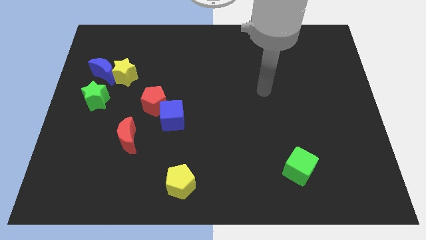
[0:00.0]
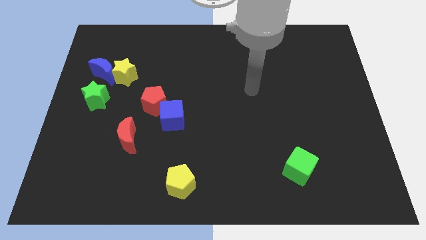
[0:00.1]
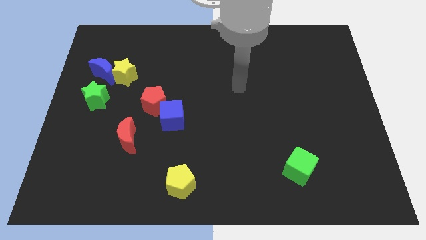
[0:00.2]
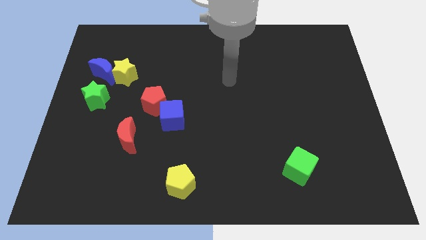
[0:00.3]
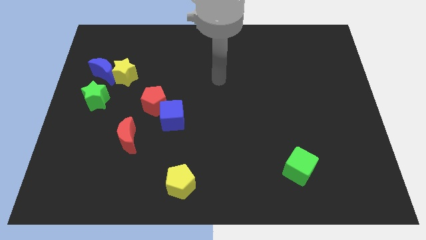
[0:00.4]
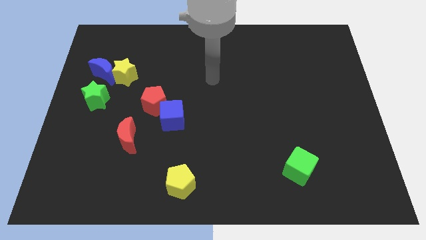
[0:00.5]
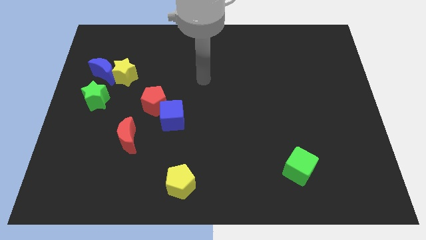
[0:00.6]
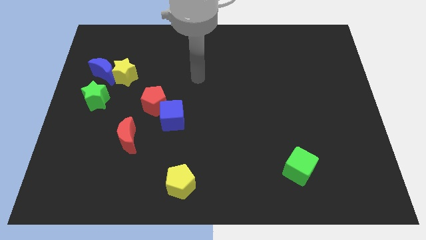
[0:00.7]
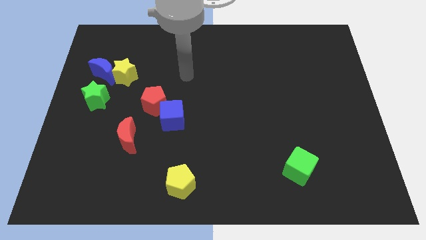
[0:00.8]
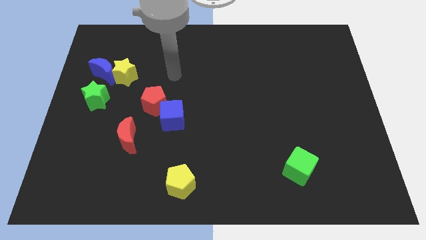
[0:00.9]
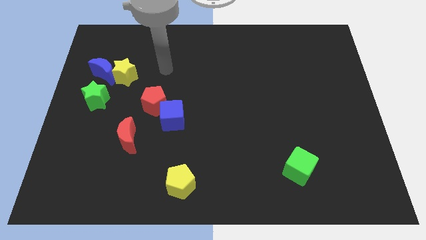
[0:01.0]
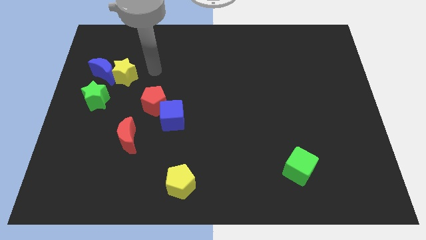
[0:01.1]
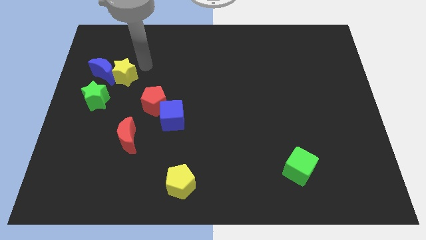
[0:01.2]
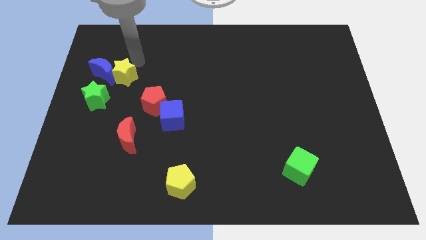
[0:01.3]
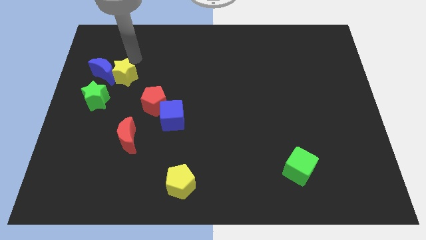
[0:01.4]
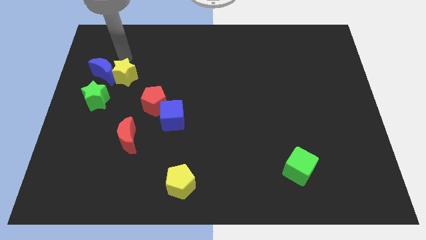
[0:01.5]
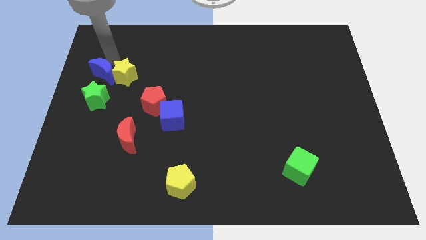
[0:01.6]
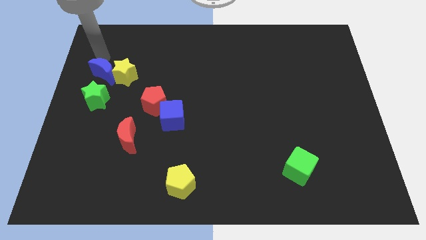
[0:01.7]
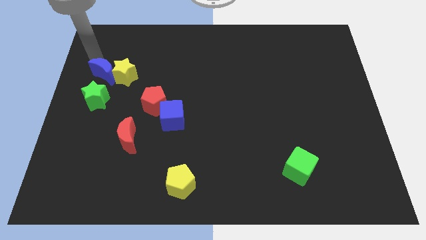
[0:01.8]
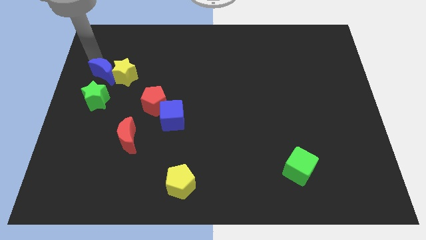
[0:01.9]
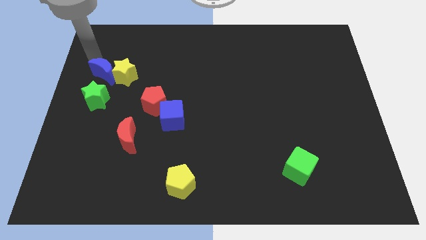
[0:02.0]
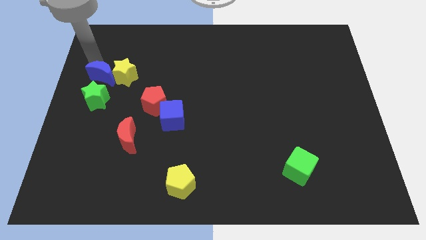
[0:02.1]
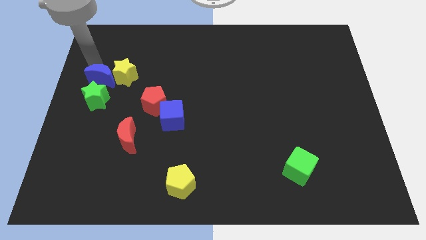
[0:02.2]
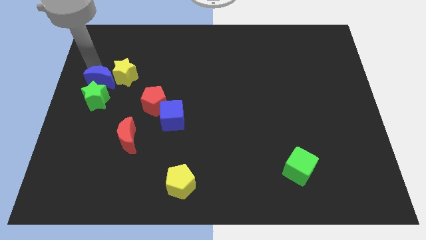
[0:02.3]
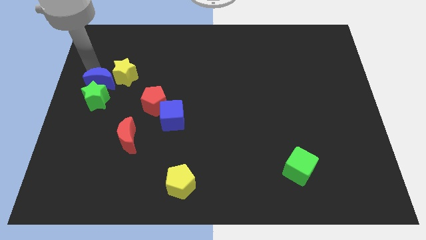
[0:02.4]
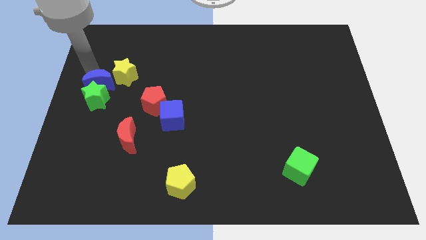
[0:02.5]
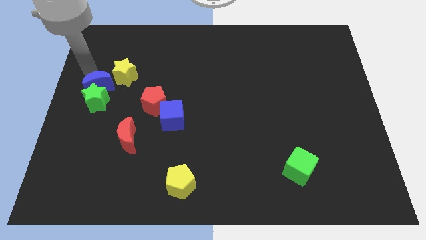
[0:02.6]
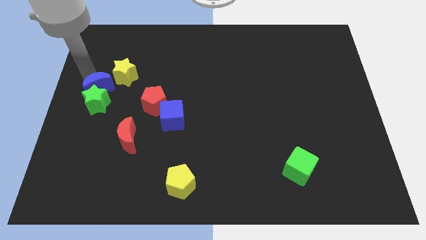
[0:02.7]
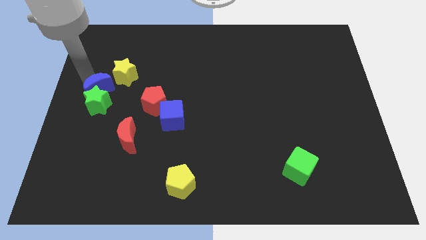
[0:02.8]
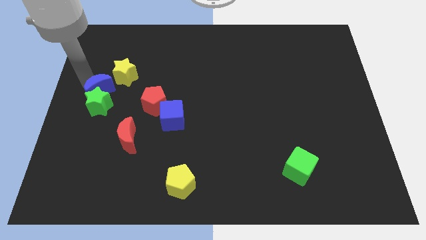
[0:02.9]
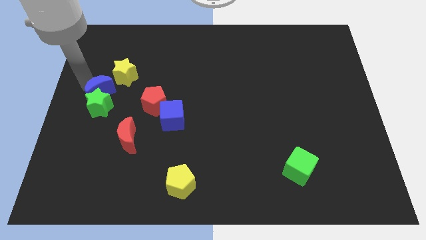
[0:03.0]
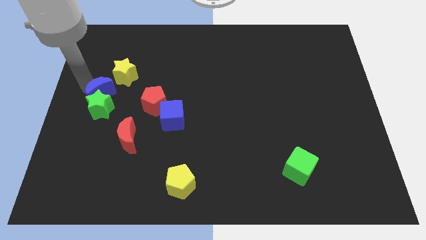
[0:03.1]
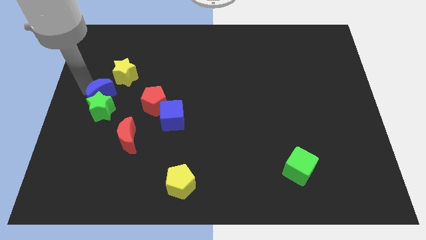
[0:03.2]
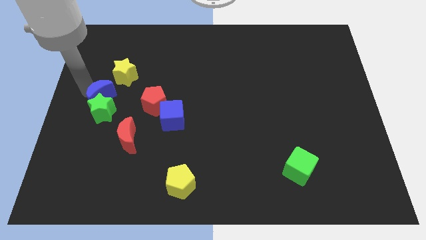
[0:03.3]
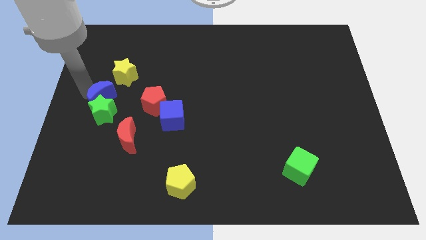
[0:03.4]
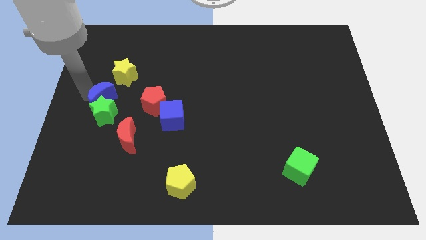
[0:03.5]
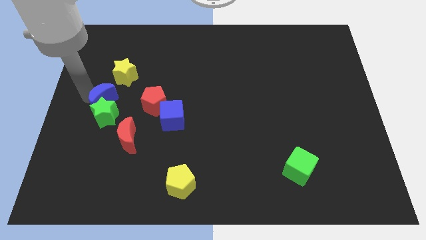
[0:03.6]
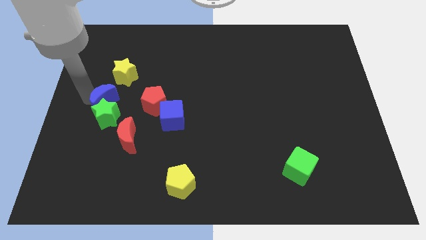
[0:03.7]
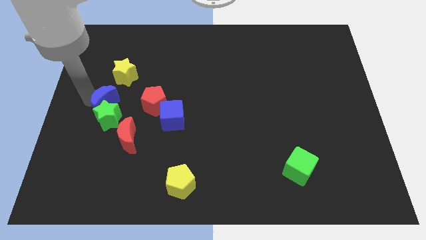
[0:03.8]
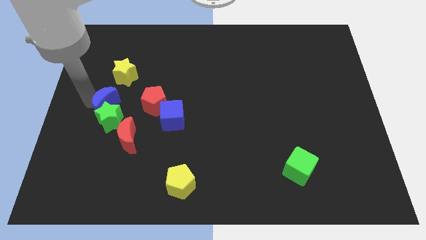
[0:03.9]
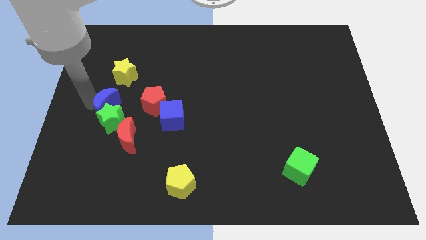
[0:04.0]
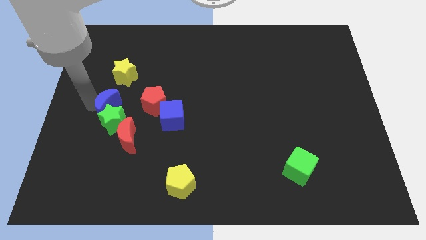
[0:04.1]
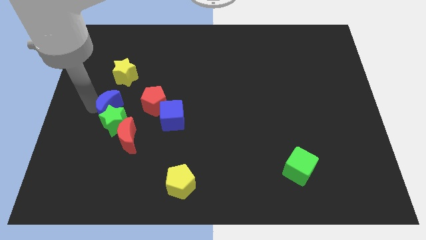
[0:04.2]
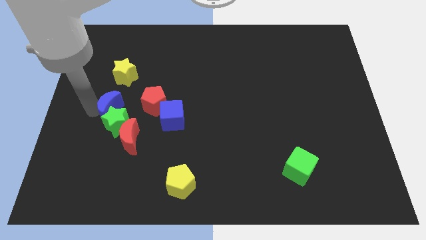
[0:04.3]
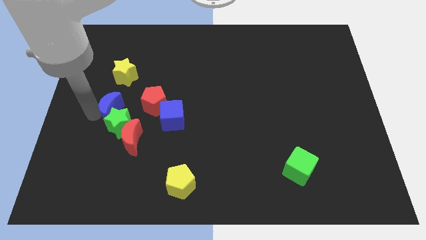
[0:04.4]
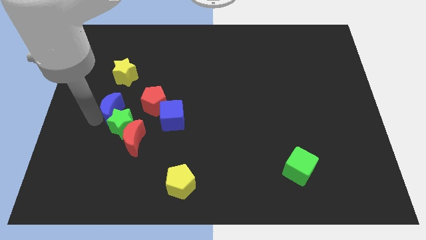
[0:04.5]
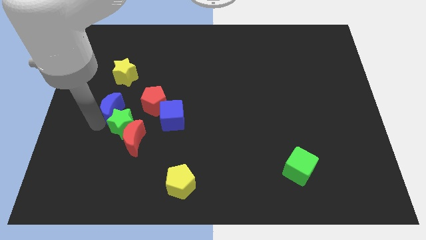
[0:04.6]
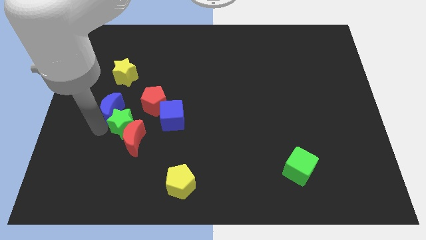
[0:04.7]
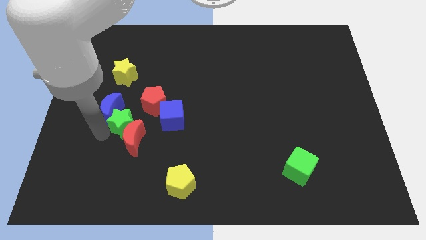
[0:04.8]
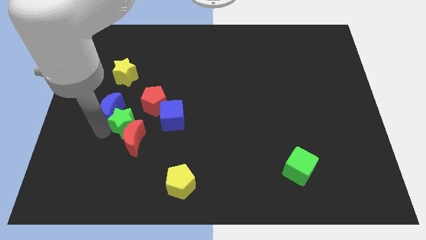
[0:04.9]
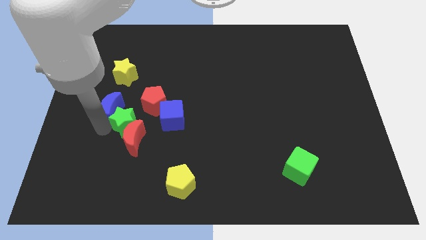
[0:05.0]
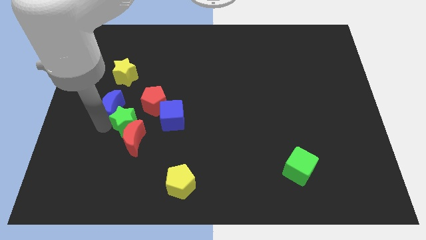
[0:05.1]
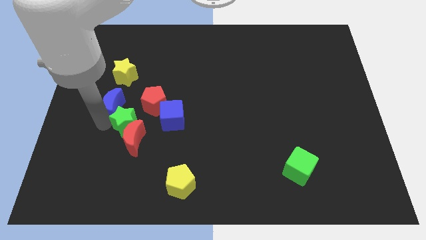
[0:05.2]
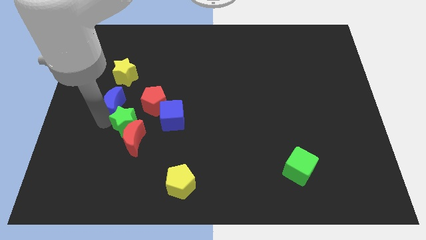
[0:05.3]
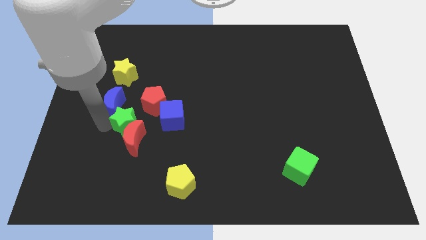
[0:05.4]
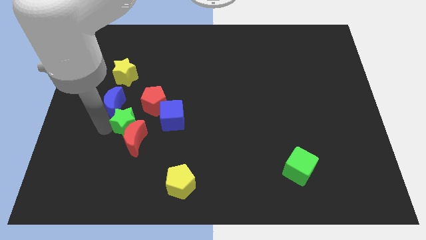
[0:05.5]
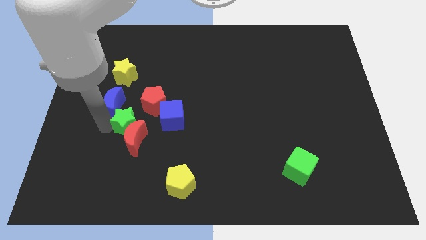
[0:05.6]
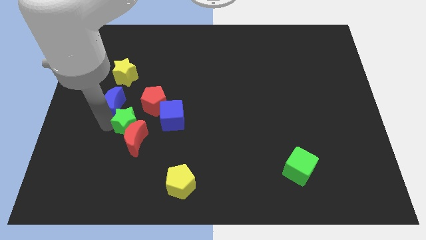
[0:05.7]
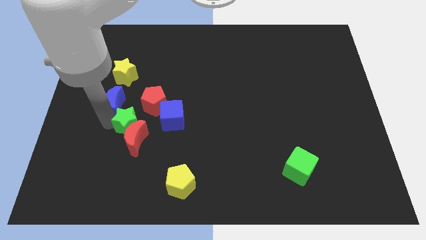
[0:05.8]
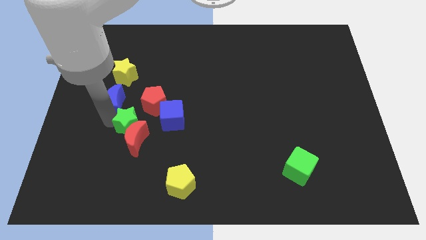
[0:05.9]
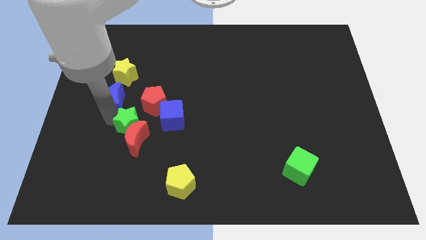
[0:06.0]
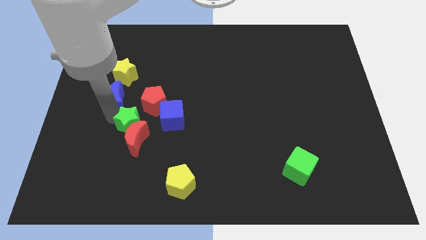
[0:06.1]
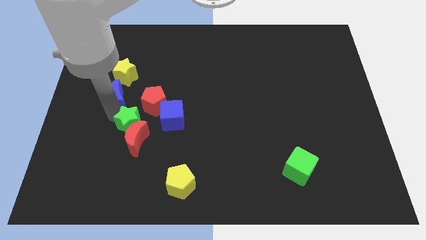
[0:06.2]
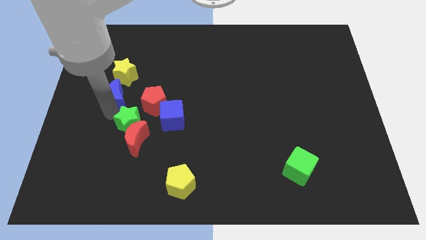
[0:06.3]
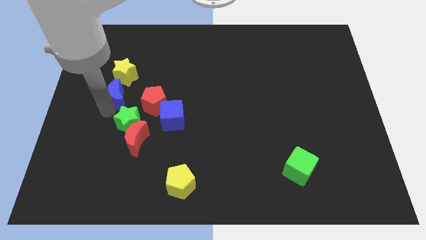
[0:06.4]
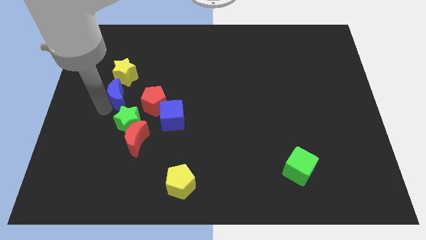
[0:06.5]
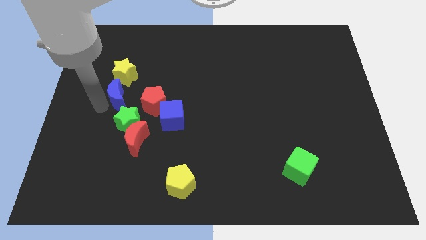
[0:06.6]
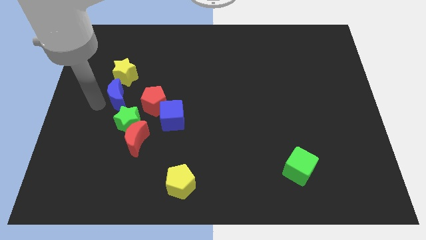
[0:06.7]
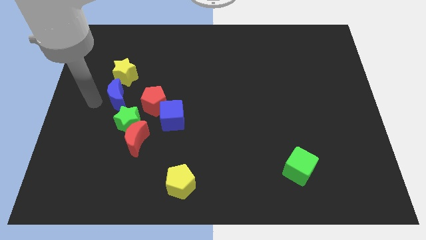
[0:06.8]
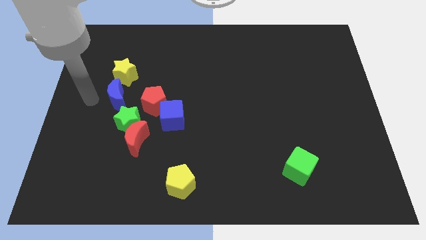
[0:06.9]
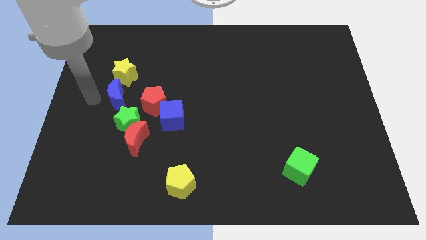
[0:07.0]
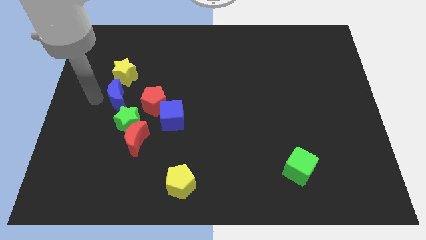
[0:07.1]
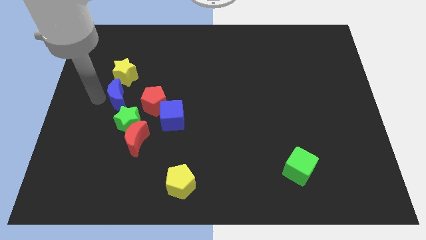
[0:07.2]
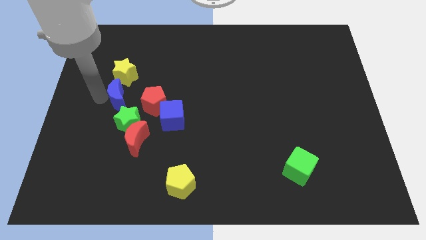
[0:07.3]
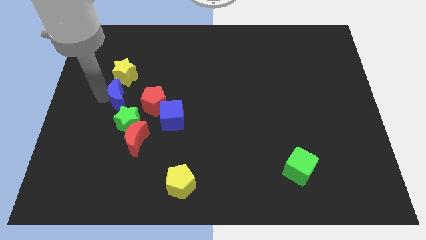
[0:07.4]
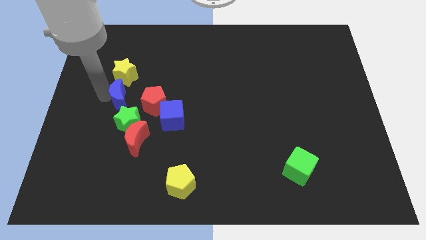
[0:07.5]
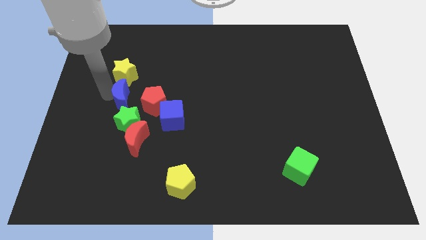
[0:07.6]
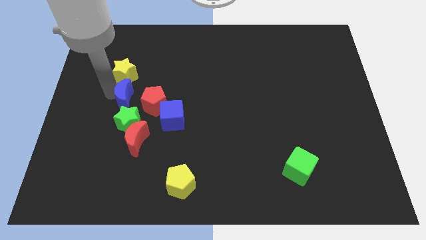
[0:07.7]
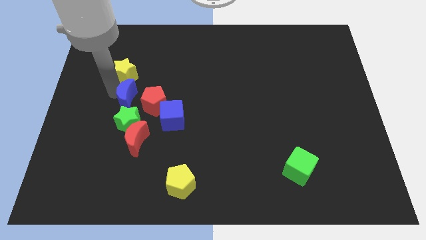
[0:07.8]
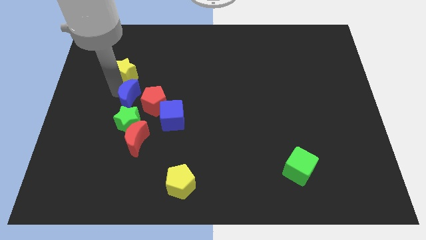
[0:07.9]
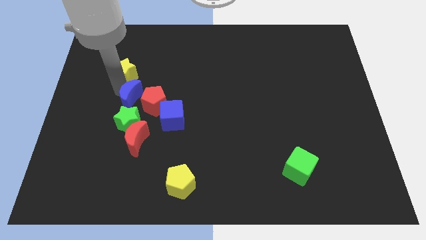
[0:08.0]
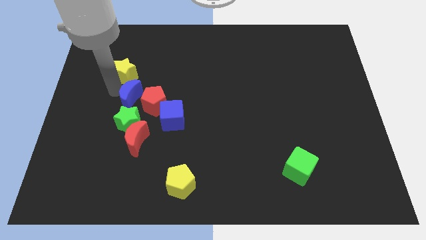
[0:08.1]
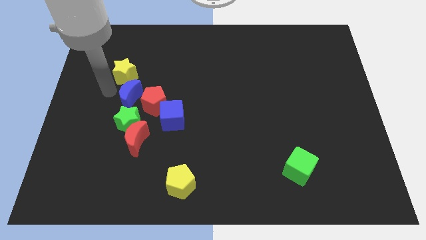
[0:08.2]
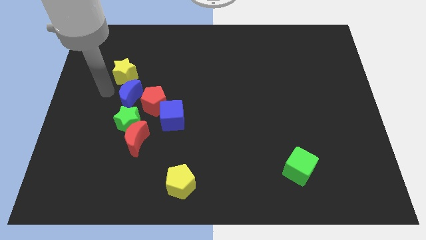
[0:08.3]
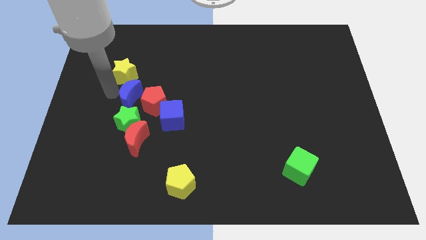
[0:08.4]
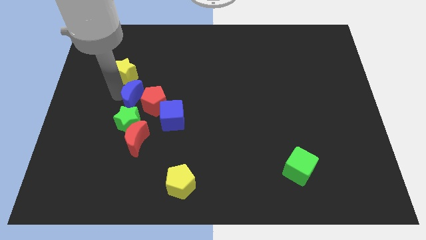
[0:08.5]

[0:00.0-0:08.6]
push the blue moon next to the red pentagon
